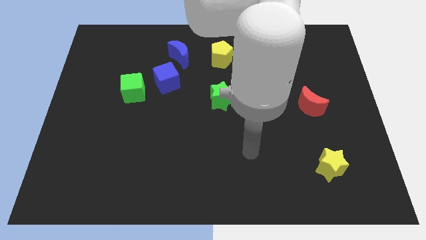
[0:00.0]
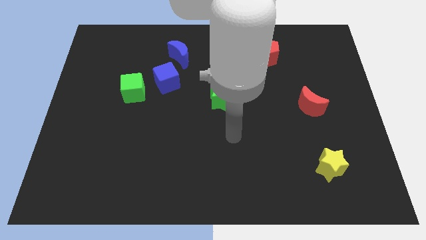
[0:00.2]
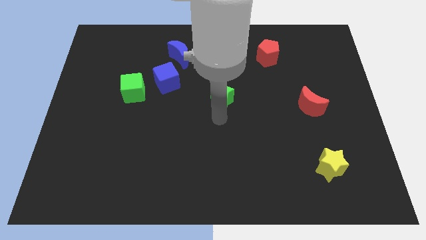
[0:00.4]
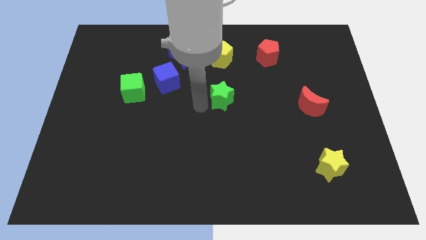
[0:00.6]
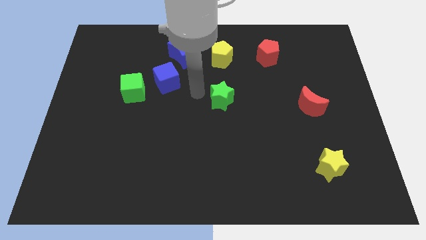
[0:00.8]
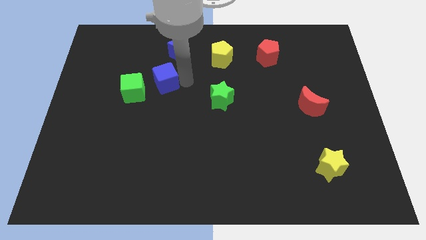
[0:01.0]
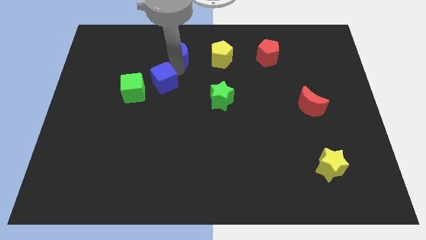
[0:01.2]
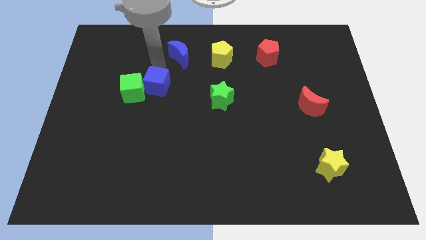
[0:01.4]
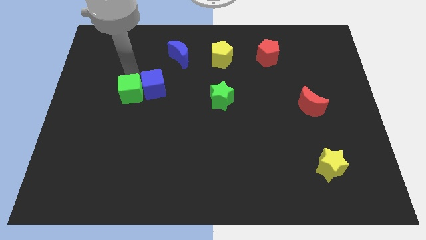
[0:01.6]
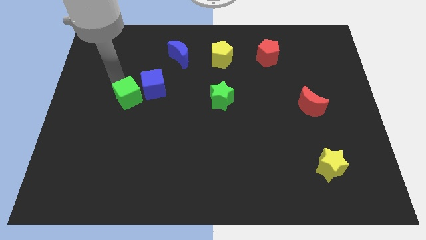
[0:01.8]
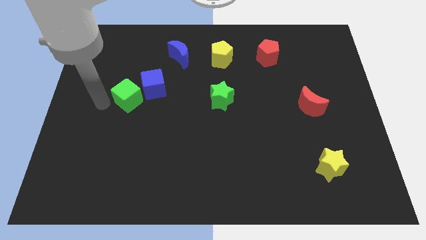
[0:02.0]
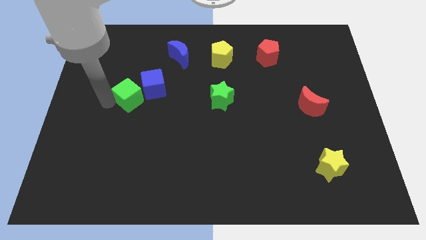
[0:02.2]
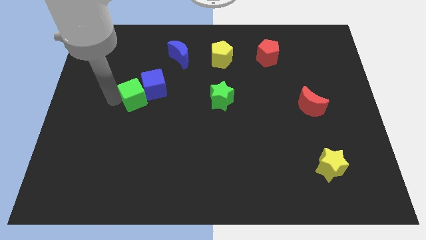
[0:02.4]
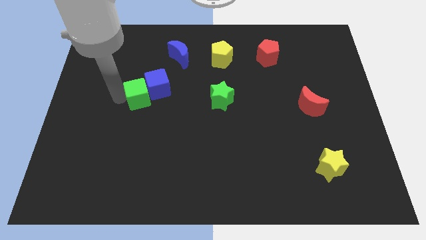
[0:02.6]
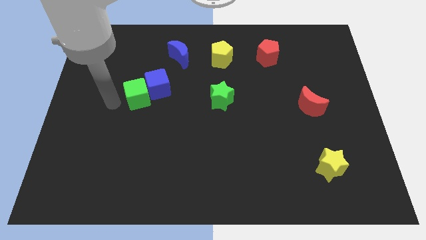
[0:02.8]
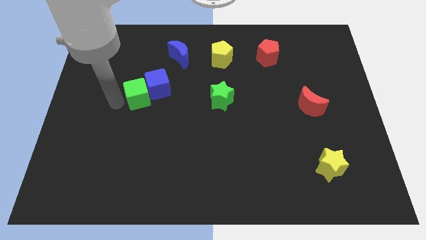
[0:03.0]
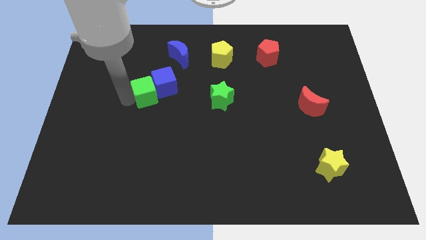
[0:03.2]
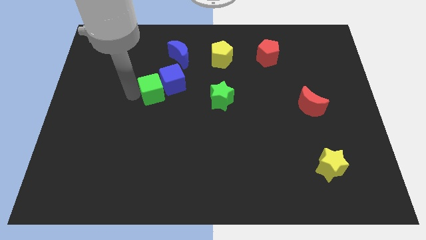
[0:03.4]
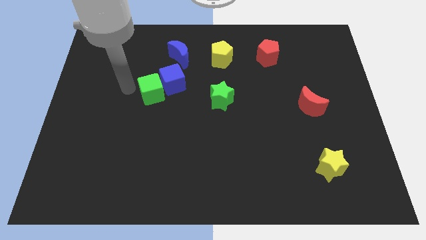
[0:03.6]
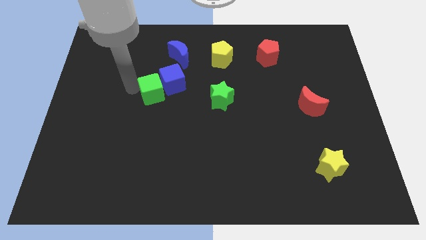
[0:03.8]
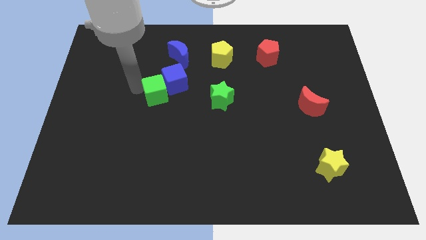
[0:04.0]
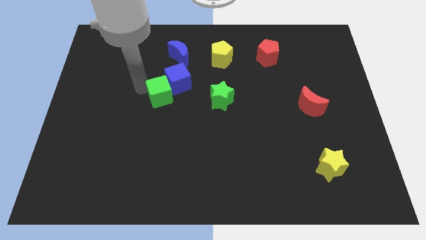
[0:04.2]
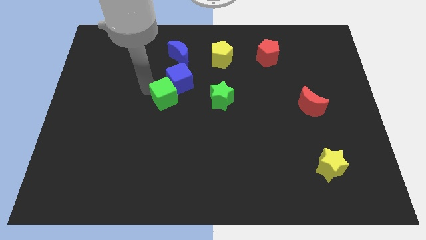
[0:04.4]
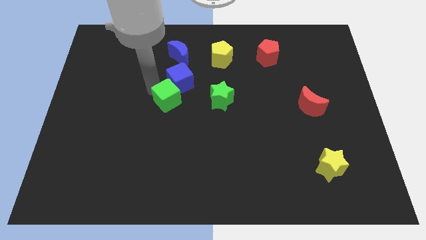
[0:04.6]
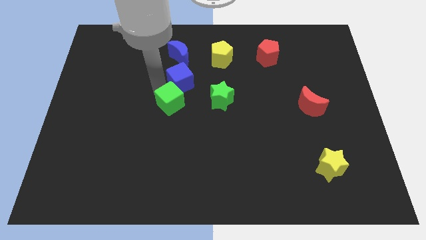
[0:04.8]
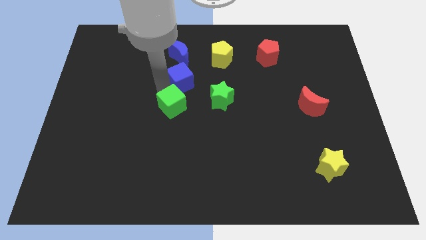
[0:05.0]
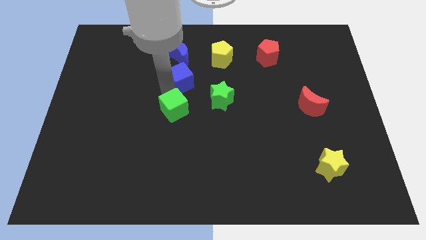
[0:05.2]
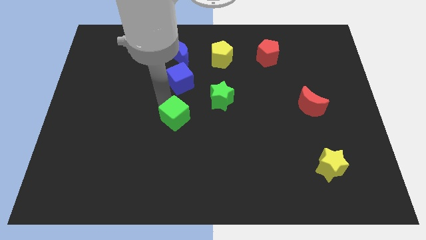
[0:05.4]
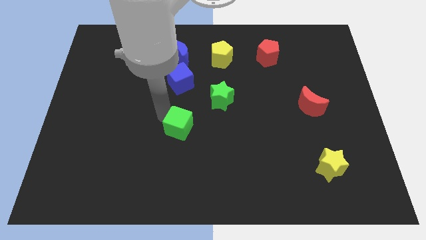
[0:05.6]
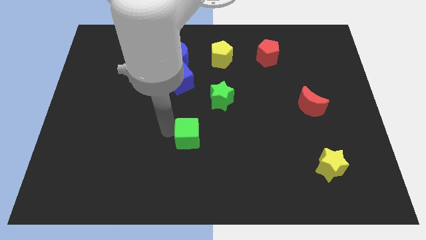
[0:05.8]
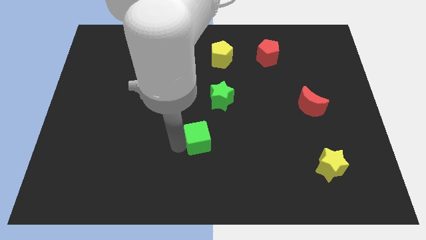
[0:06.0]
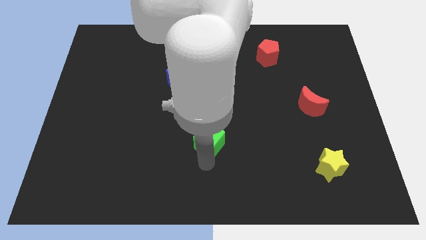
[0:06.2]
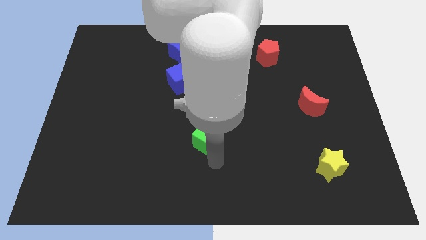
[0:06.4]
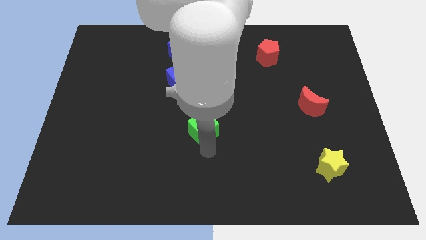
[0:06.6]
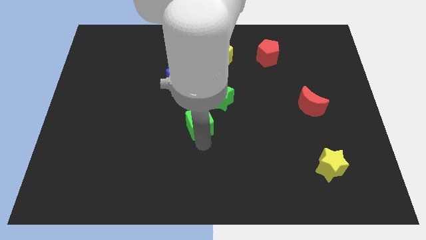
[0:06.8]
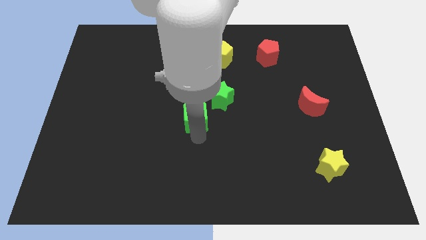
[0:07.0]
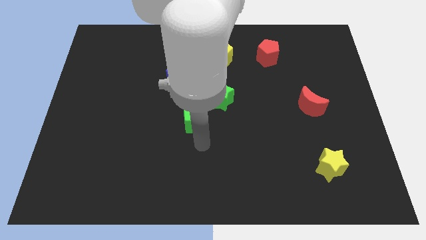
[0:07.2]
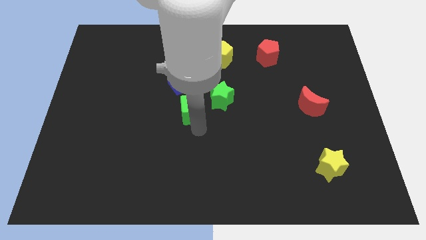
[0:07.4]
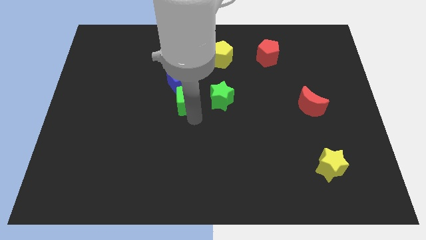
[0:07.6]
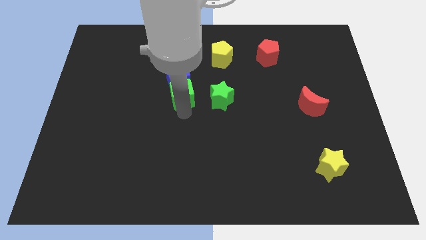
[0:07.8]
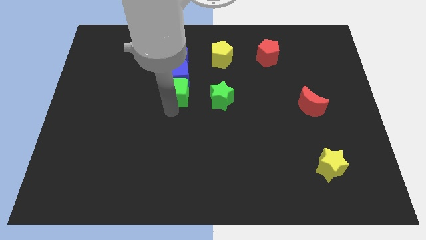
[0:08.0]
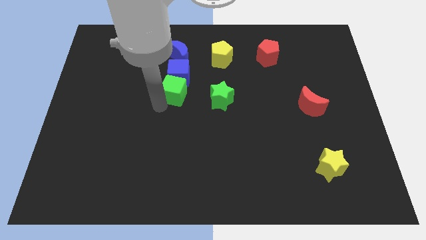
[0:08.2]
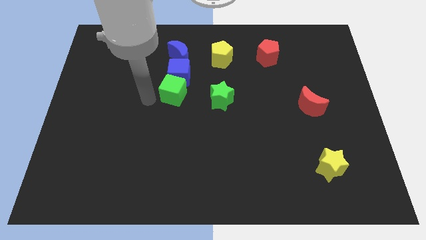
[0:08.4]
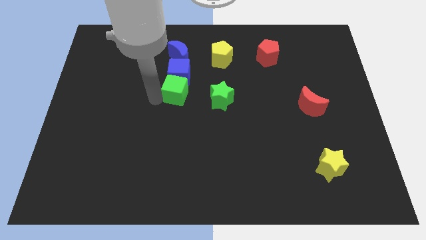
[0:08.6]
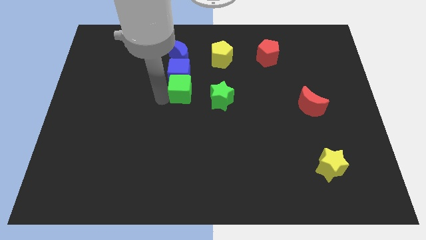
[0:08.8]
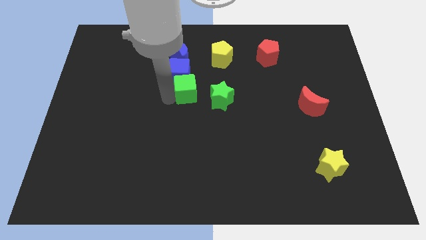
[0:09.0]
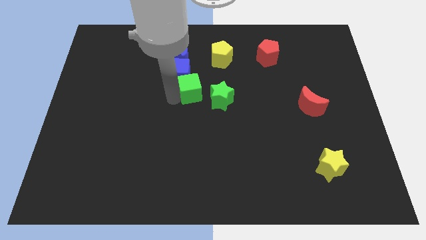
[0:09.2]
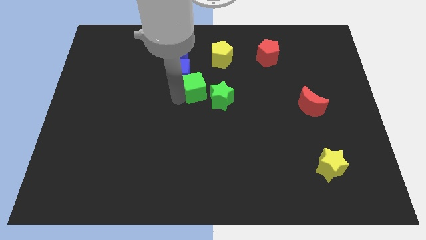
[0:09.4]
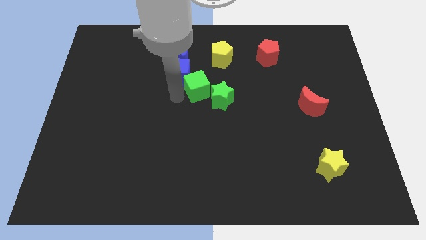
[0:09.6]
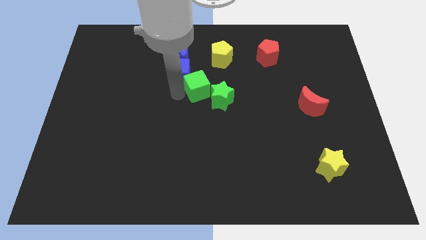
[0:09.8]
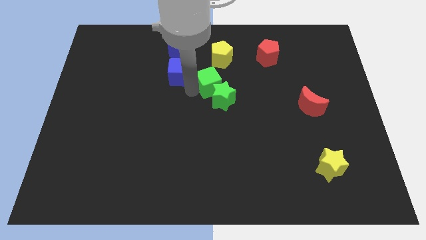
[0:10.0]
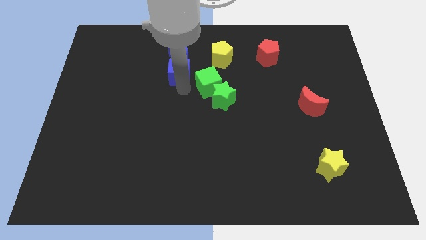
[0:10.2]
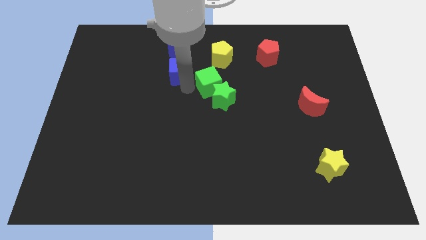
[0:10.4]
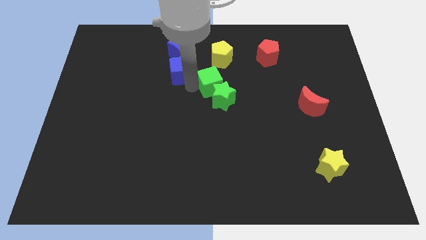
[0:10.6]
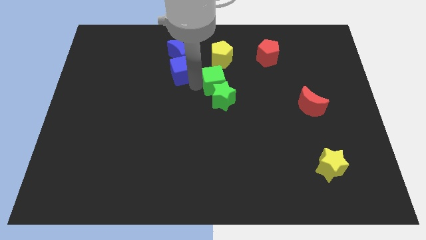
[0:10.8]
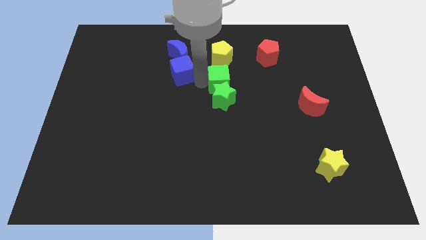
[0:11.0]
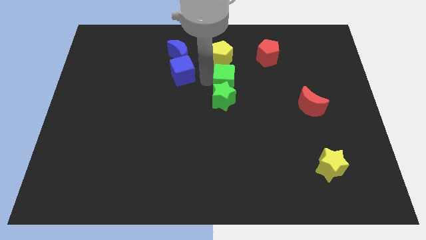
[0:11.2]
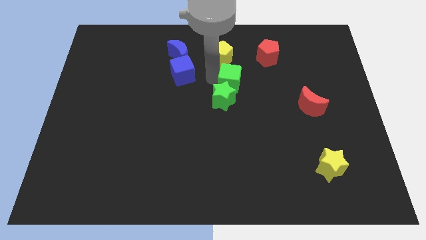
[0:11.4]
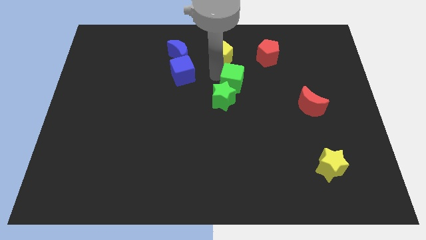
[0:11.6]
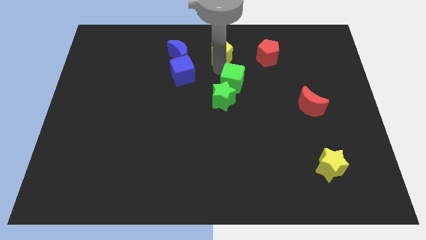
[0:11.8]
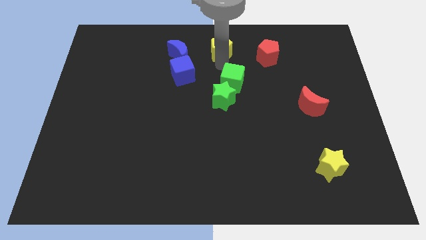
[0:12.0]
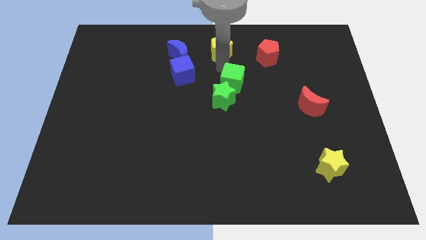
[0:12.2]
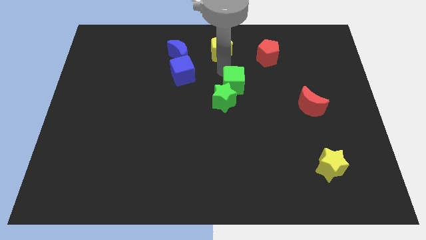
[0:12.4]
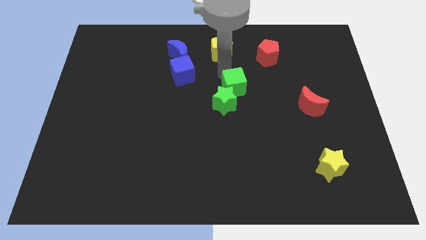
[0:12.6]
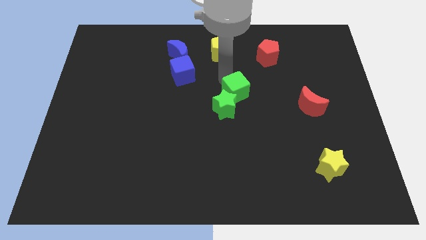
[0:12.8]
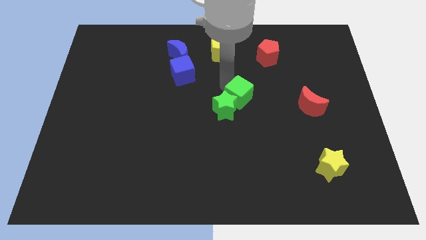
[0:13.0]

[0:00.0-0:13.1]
slide the green cube to the right of the green star
